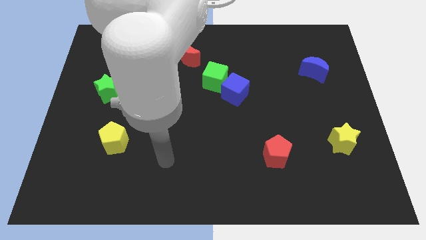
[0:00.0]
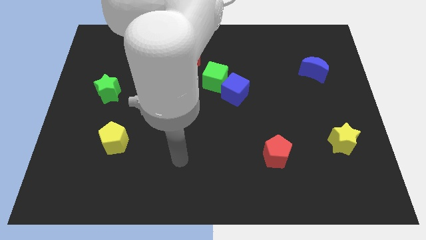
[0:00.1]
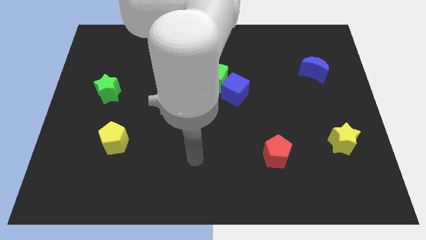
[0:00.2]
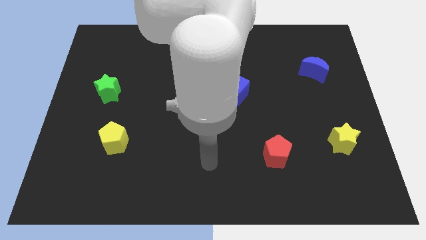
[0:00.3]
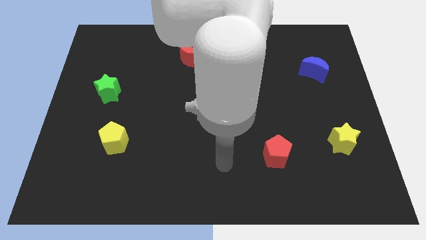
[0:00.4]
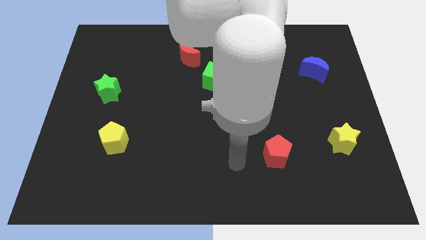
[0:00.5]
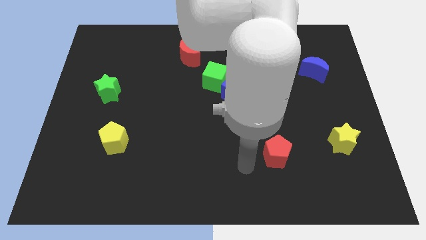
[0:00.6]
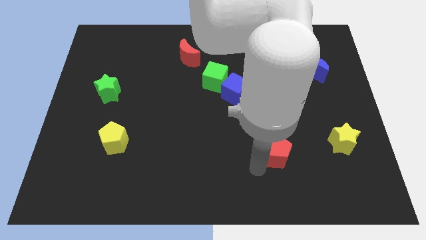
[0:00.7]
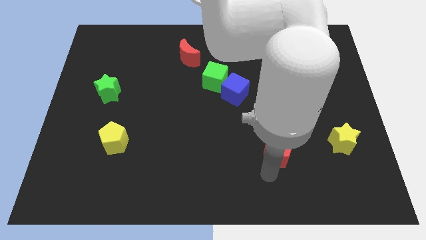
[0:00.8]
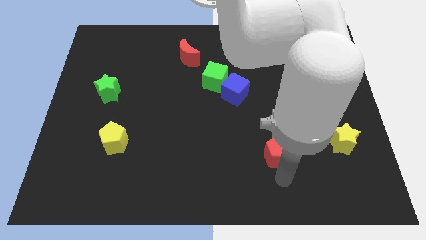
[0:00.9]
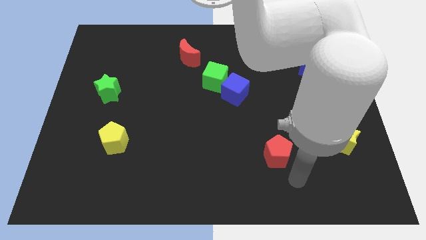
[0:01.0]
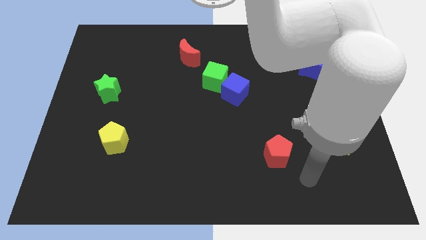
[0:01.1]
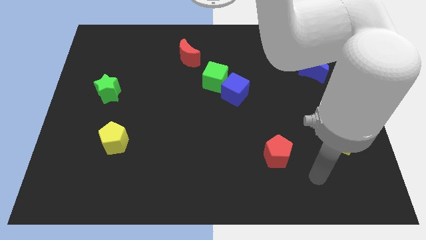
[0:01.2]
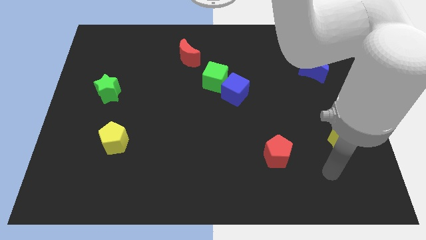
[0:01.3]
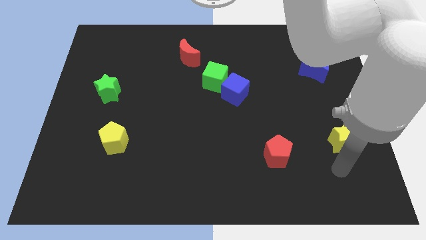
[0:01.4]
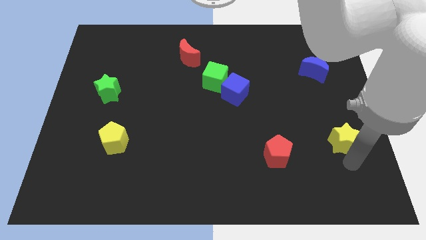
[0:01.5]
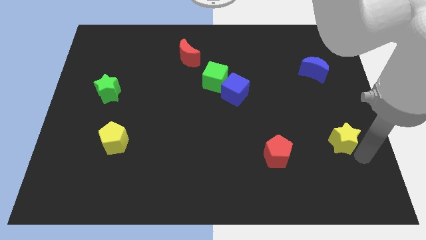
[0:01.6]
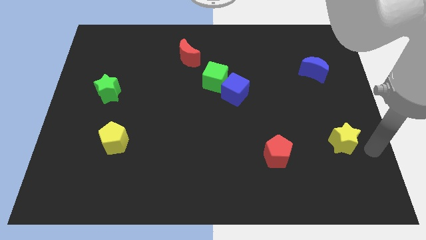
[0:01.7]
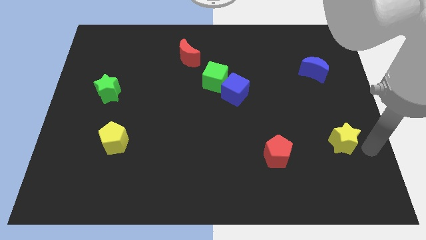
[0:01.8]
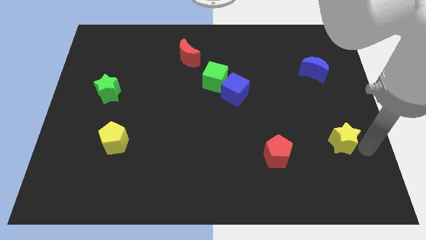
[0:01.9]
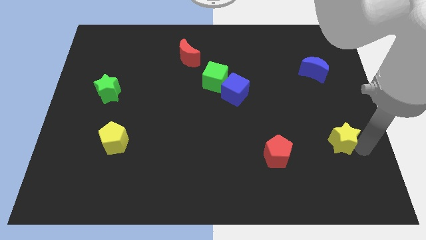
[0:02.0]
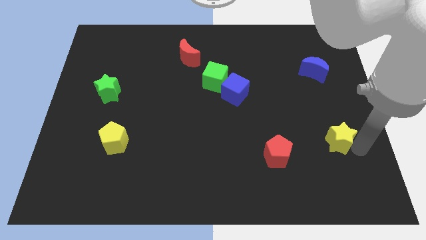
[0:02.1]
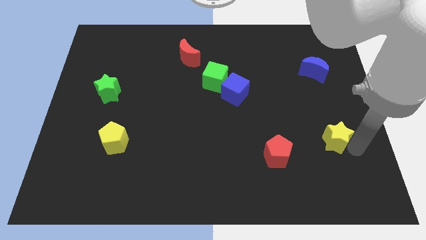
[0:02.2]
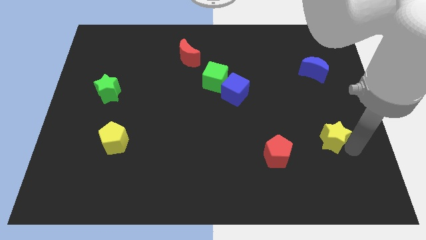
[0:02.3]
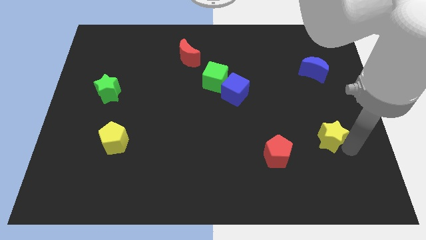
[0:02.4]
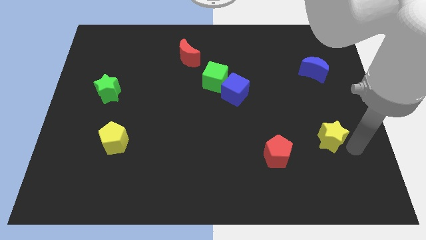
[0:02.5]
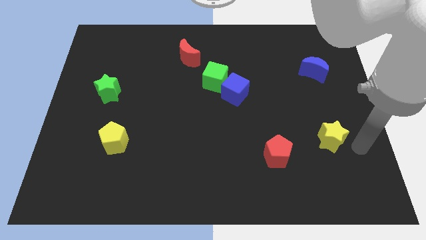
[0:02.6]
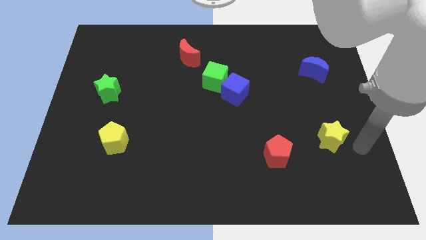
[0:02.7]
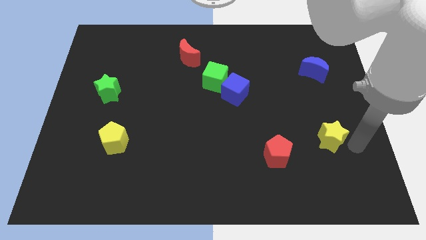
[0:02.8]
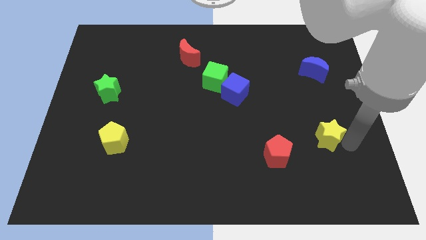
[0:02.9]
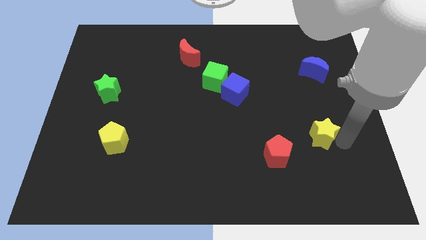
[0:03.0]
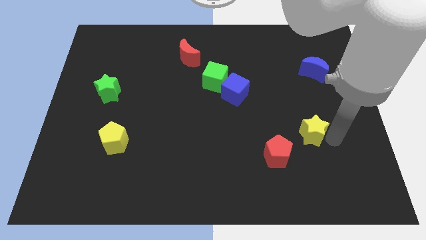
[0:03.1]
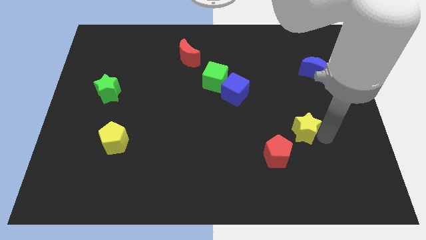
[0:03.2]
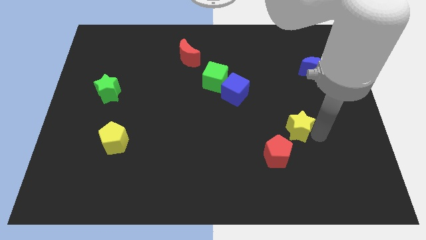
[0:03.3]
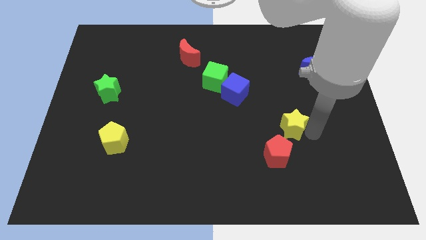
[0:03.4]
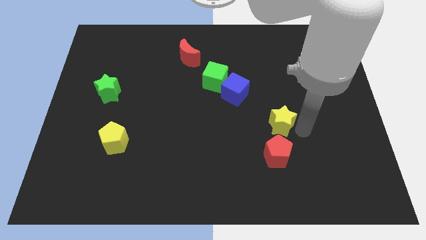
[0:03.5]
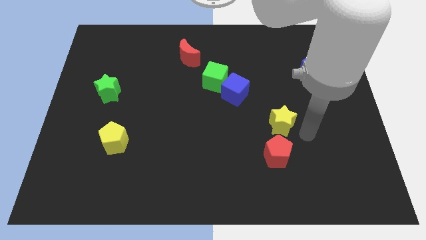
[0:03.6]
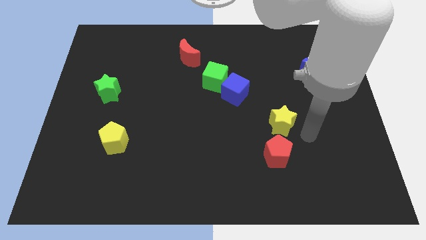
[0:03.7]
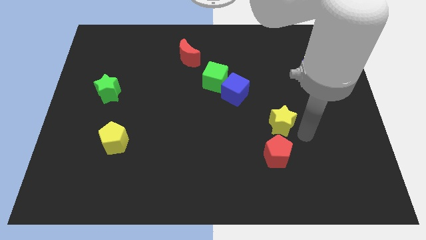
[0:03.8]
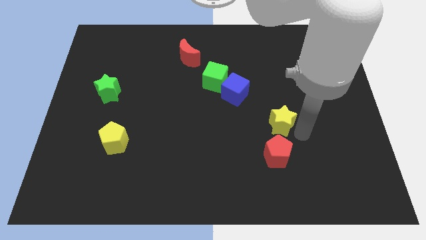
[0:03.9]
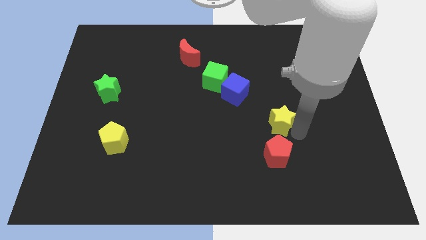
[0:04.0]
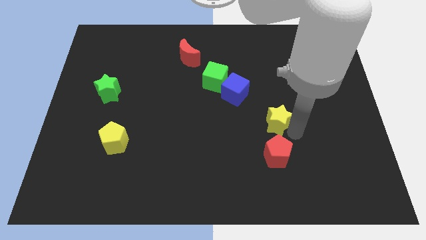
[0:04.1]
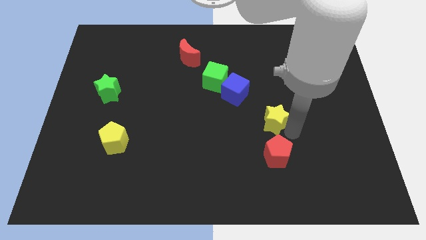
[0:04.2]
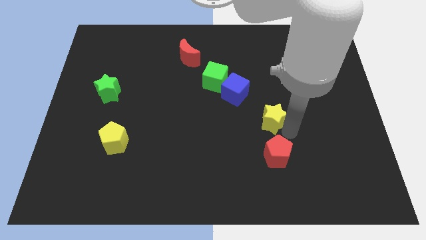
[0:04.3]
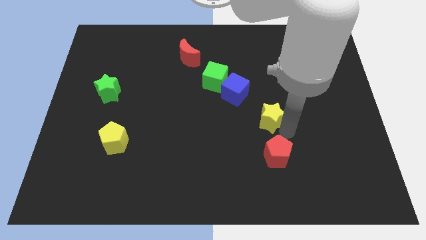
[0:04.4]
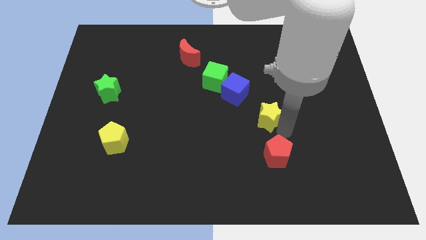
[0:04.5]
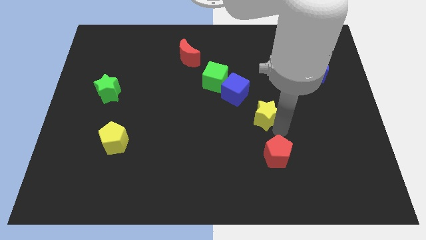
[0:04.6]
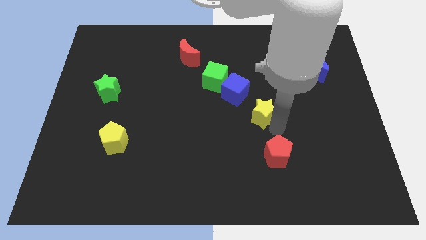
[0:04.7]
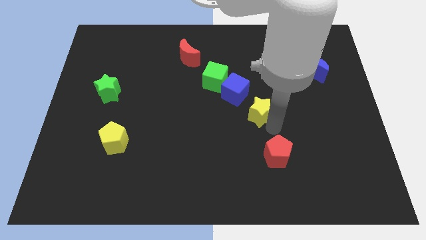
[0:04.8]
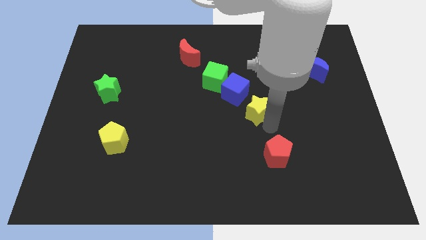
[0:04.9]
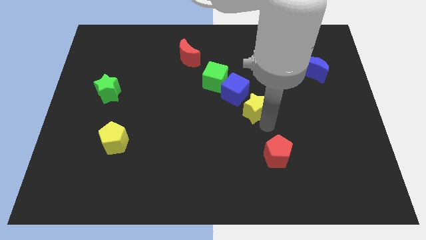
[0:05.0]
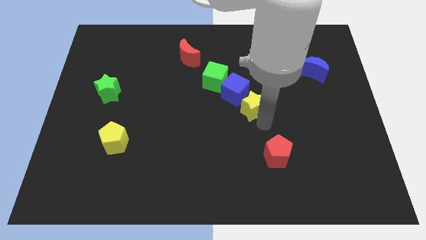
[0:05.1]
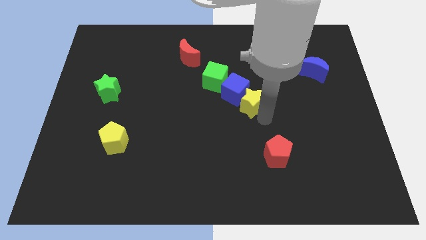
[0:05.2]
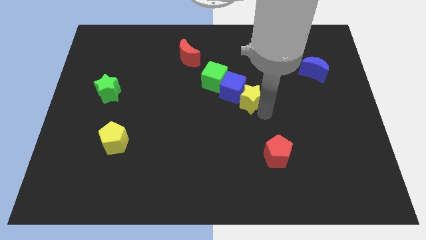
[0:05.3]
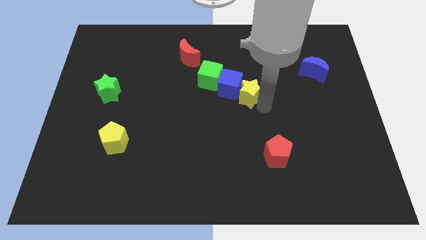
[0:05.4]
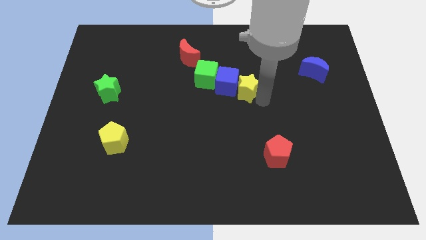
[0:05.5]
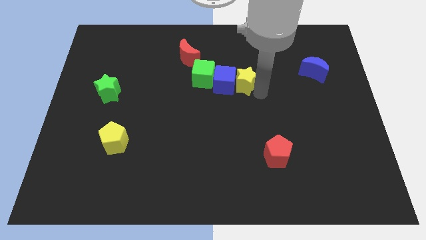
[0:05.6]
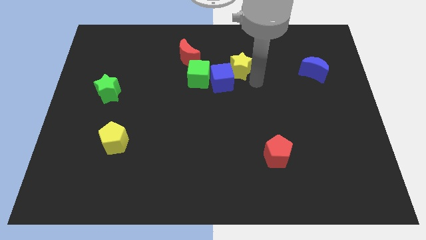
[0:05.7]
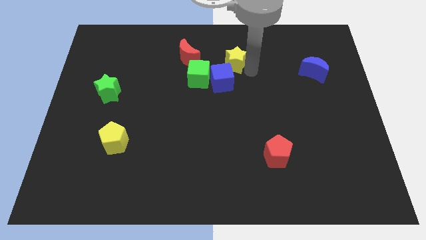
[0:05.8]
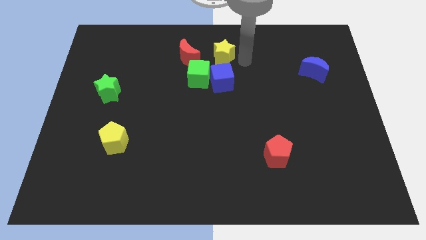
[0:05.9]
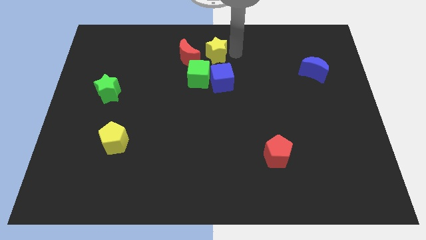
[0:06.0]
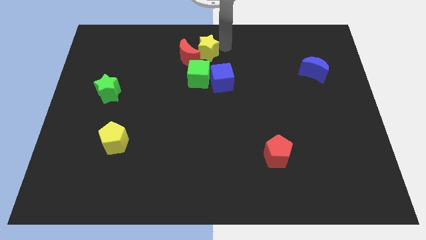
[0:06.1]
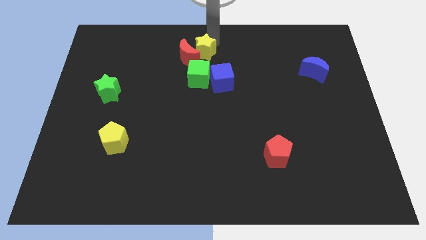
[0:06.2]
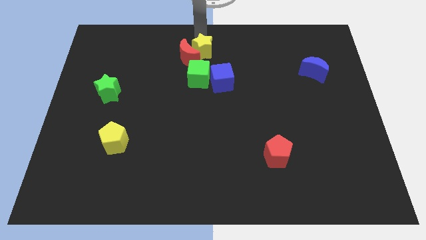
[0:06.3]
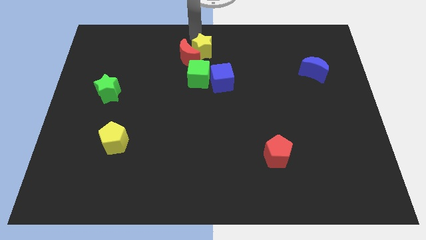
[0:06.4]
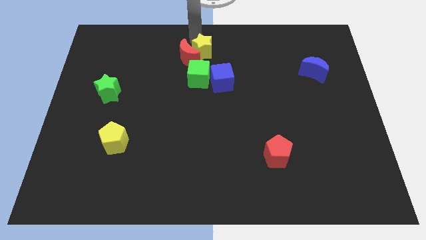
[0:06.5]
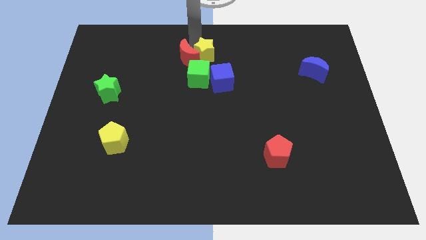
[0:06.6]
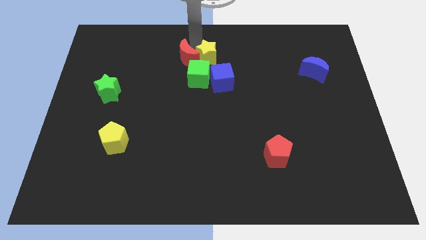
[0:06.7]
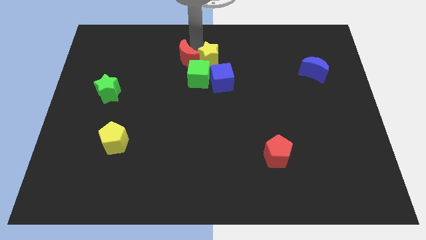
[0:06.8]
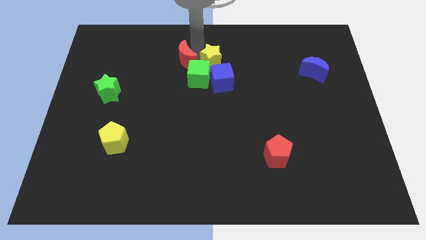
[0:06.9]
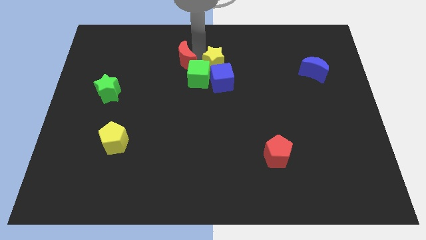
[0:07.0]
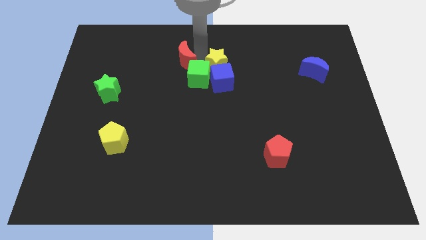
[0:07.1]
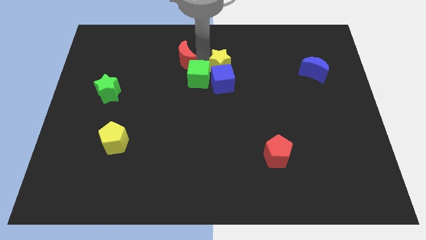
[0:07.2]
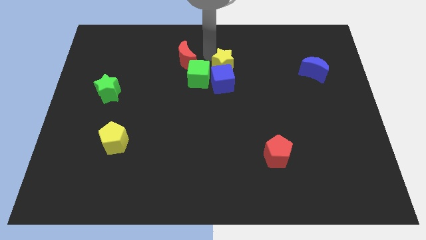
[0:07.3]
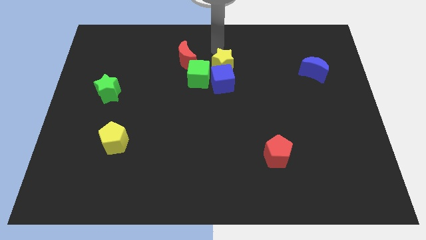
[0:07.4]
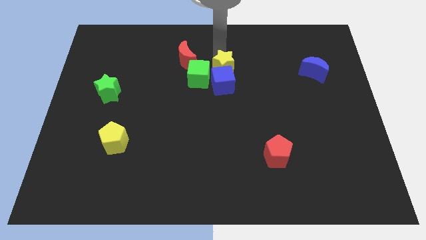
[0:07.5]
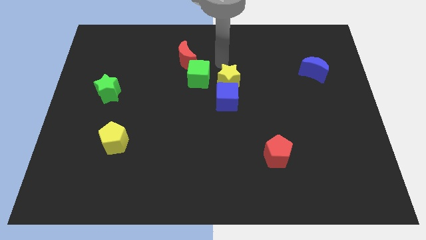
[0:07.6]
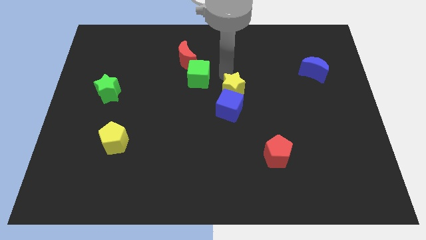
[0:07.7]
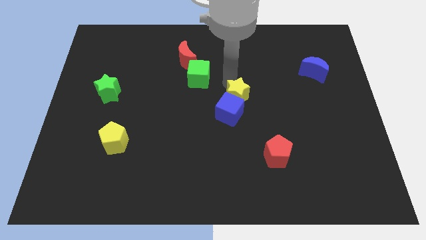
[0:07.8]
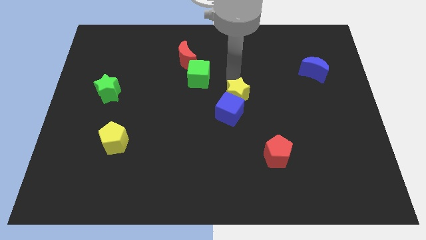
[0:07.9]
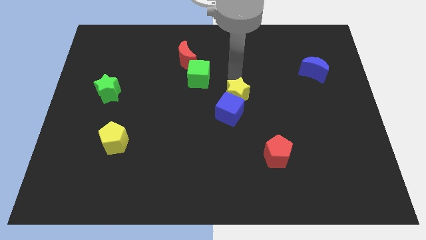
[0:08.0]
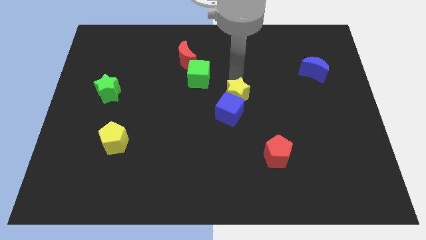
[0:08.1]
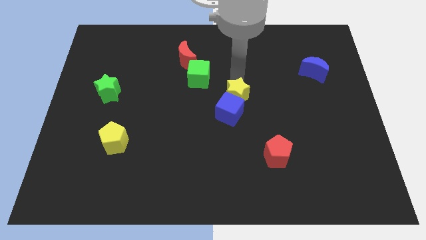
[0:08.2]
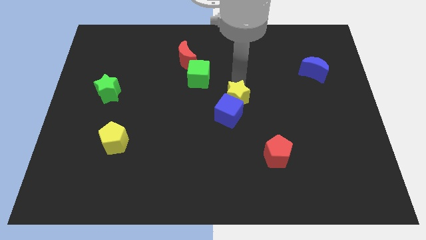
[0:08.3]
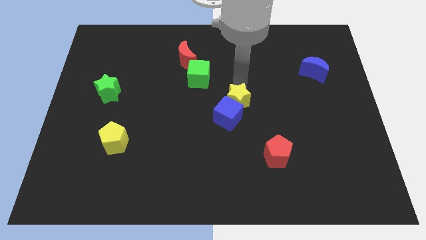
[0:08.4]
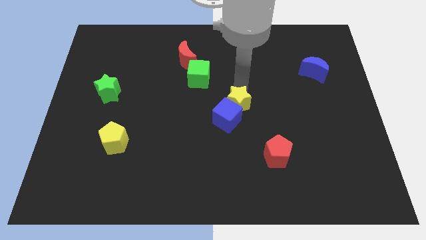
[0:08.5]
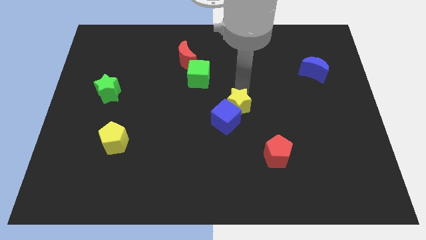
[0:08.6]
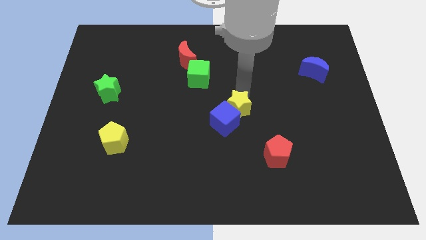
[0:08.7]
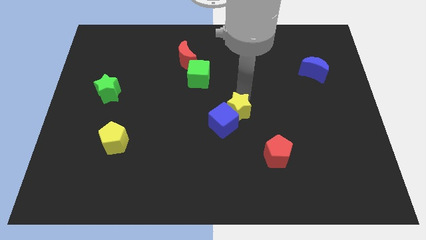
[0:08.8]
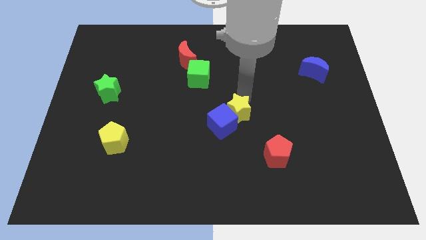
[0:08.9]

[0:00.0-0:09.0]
push the yellow star to the left
